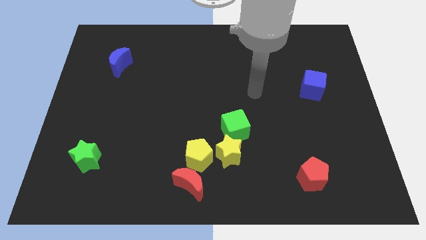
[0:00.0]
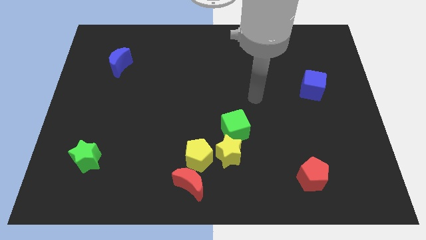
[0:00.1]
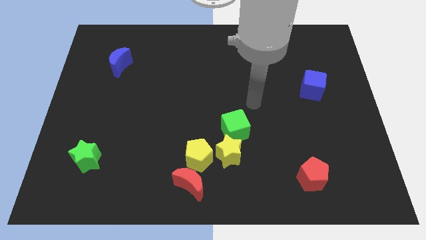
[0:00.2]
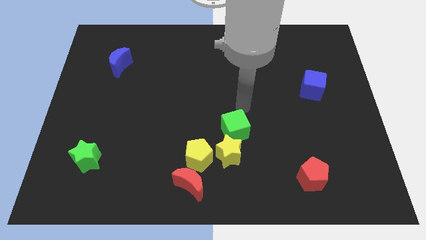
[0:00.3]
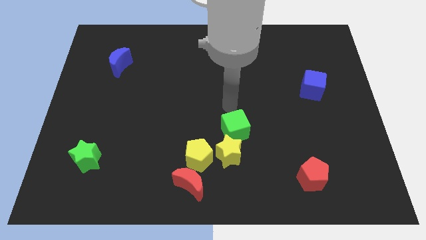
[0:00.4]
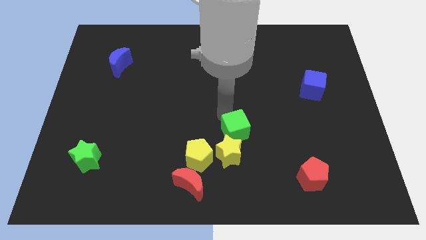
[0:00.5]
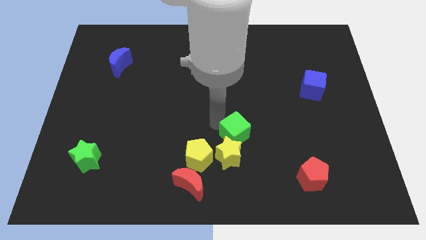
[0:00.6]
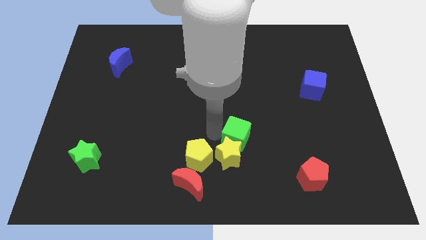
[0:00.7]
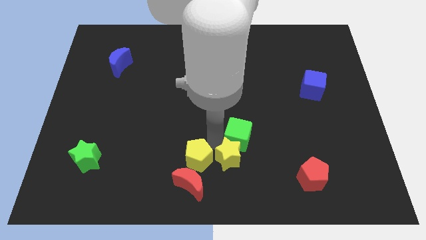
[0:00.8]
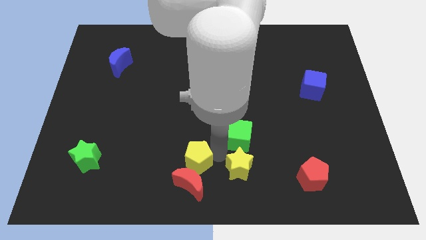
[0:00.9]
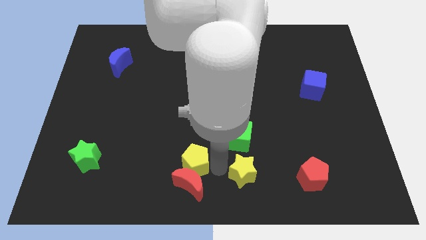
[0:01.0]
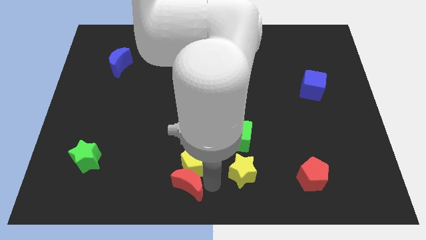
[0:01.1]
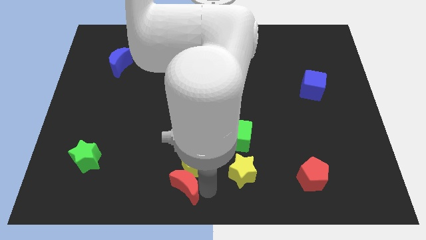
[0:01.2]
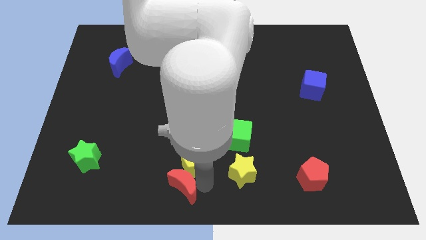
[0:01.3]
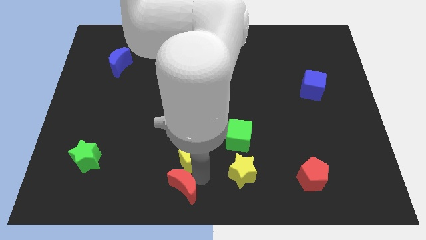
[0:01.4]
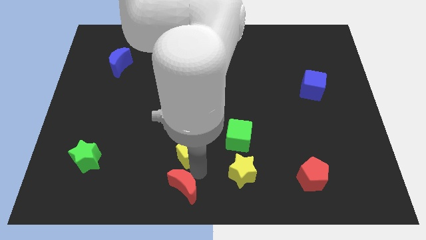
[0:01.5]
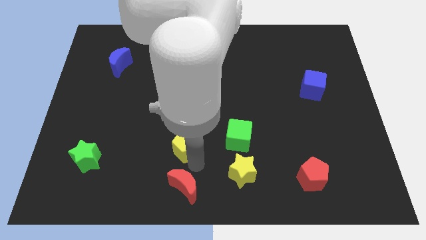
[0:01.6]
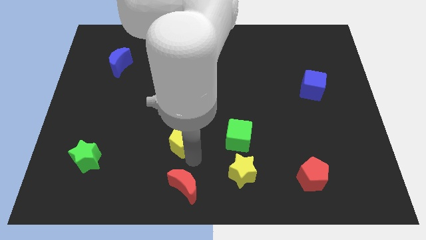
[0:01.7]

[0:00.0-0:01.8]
pull the yellow pentagon apart from the red moon and yellow star

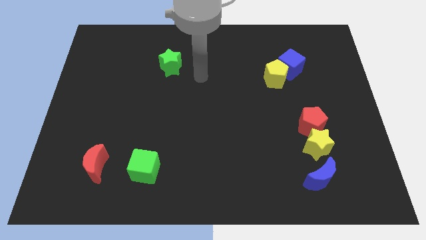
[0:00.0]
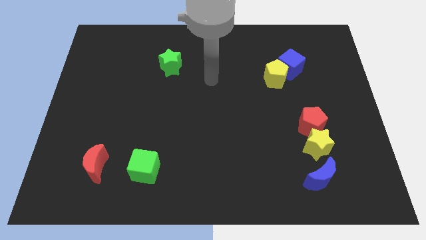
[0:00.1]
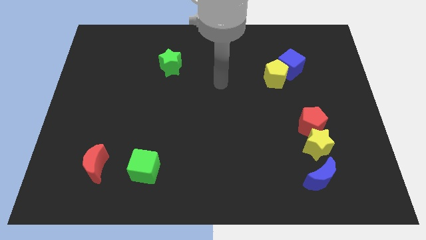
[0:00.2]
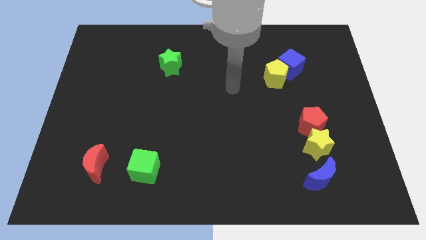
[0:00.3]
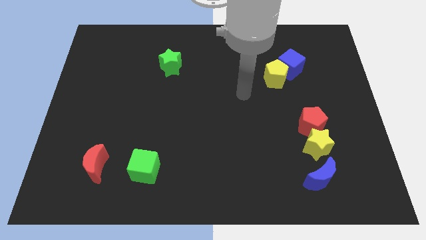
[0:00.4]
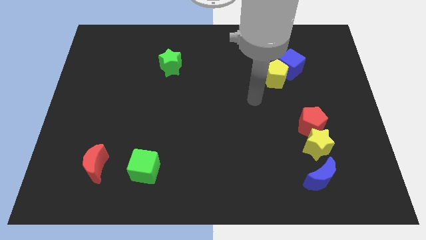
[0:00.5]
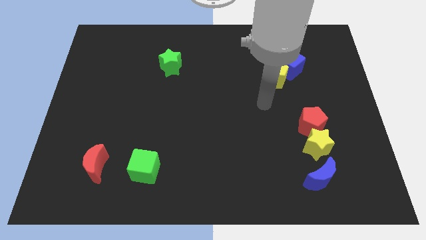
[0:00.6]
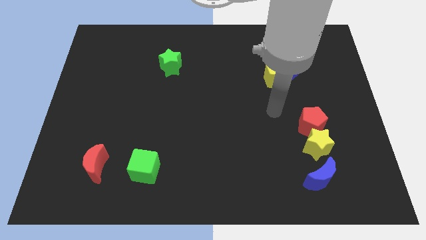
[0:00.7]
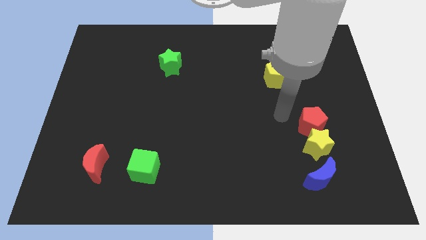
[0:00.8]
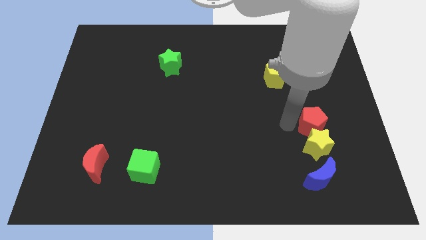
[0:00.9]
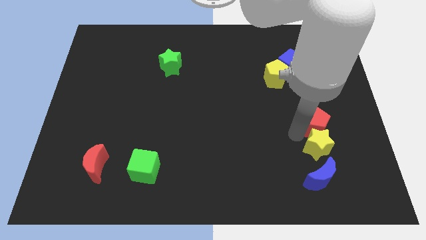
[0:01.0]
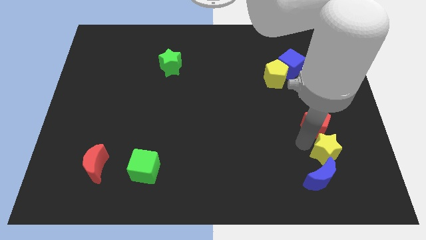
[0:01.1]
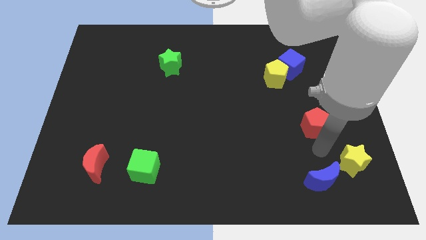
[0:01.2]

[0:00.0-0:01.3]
move the red pentagon away from the yellow star

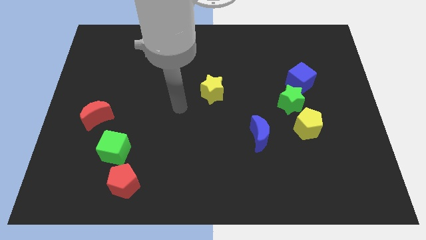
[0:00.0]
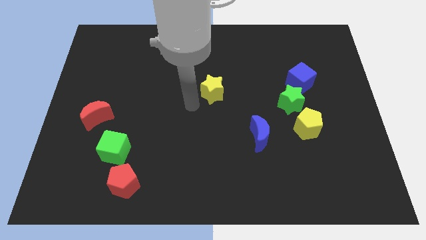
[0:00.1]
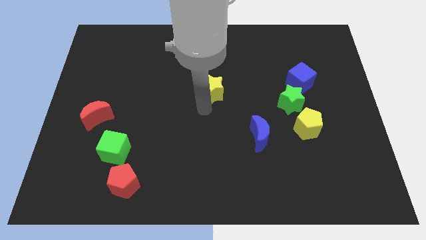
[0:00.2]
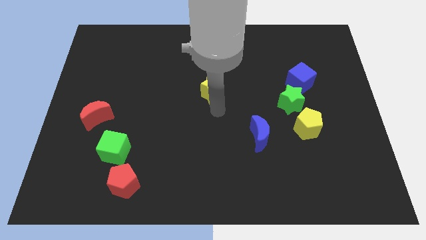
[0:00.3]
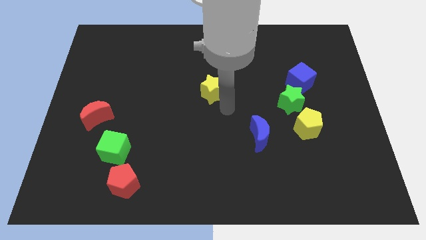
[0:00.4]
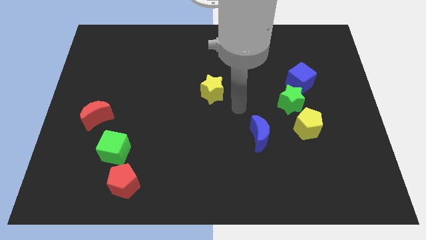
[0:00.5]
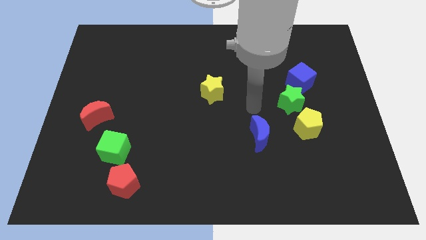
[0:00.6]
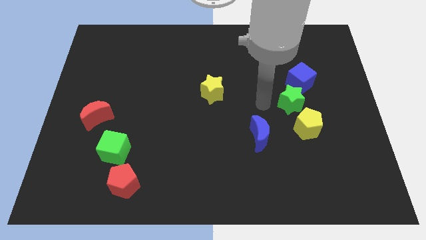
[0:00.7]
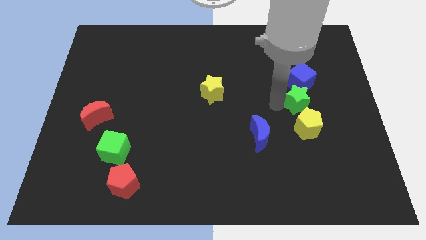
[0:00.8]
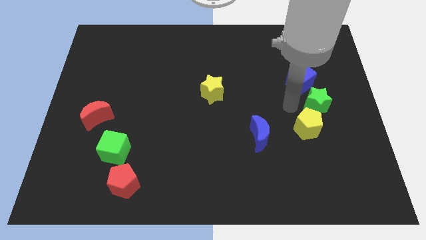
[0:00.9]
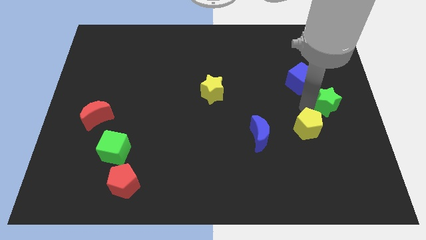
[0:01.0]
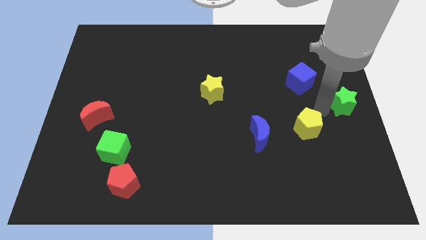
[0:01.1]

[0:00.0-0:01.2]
pull the yellow pentagon apart from the green star

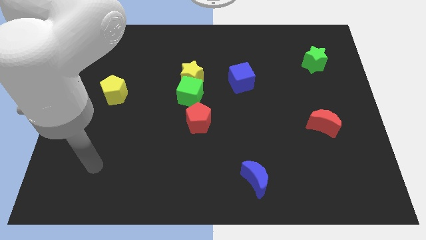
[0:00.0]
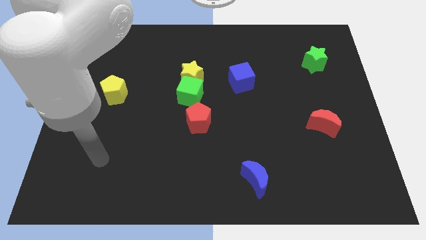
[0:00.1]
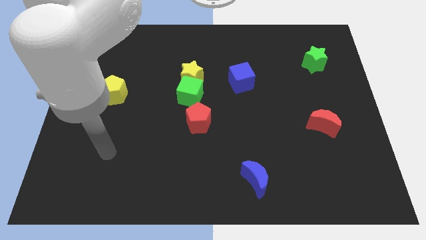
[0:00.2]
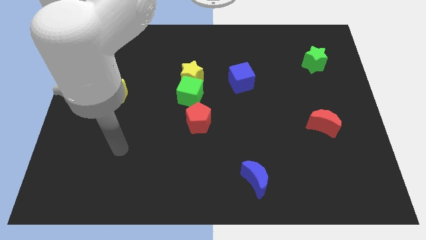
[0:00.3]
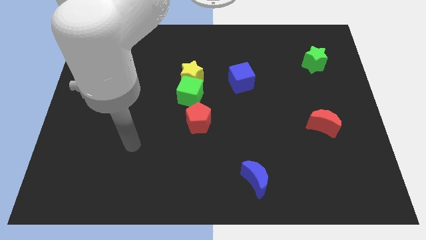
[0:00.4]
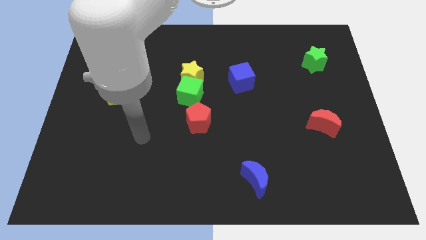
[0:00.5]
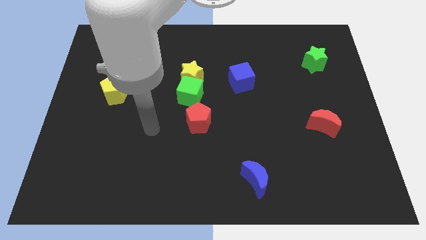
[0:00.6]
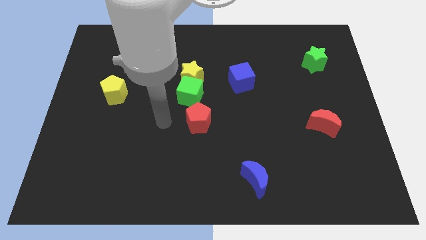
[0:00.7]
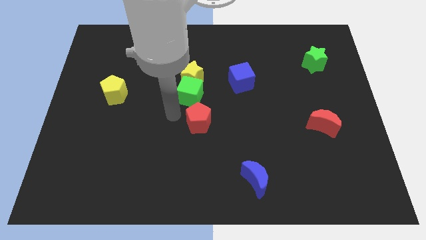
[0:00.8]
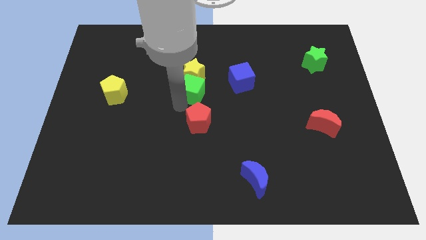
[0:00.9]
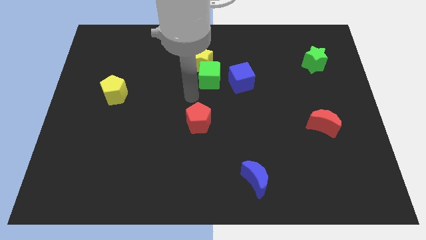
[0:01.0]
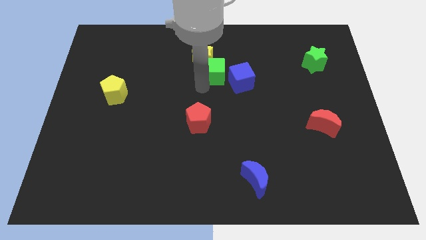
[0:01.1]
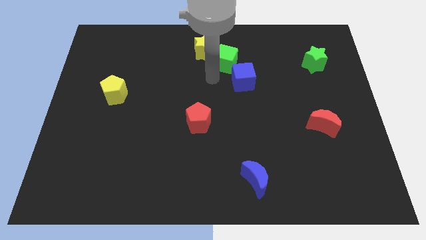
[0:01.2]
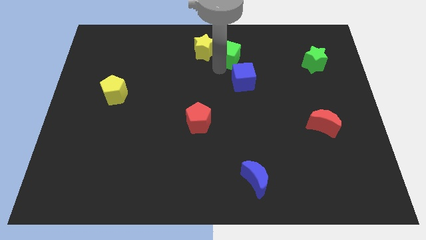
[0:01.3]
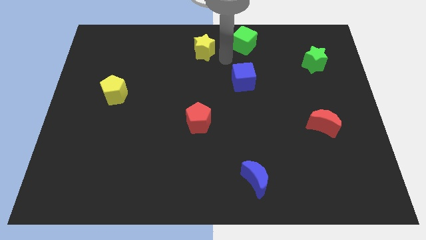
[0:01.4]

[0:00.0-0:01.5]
move the yellow star away from the green cube

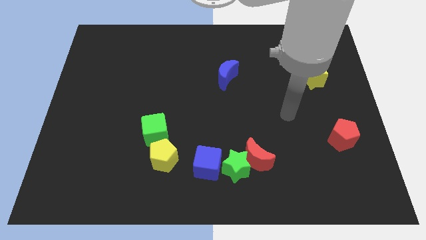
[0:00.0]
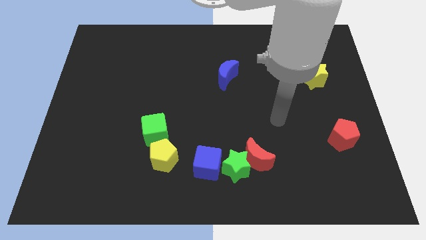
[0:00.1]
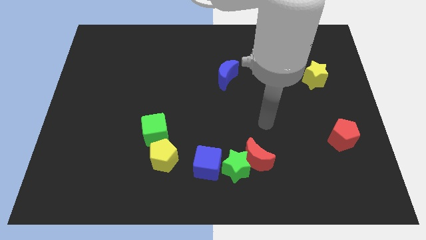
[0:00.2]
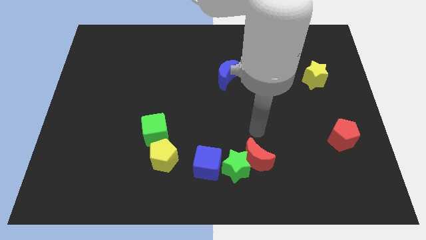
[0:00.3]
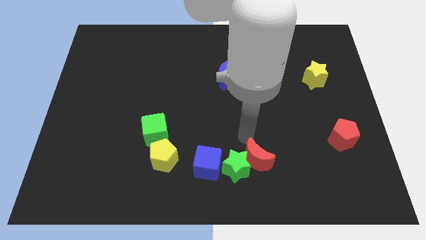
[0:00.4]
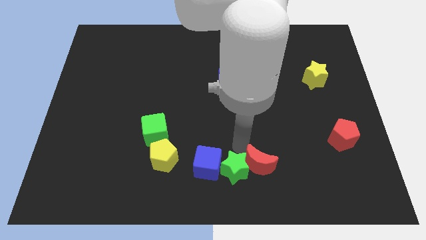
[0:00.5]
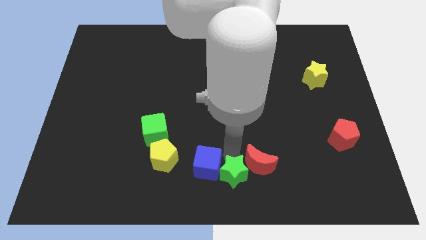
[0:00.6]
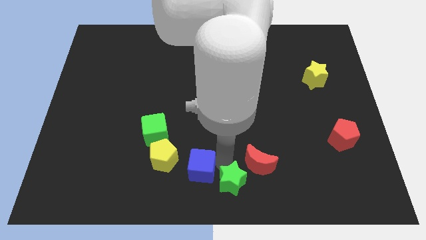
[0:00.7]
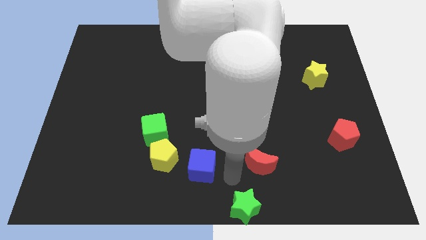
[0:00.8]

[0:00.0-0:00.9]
separate the red moon from the green star

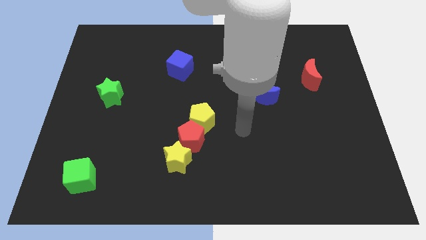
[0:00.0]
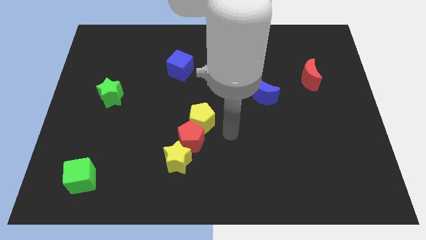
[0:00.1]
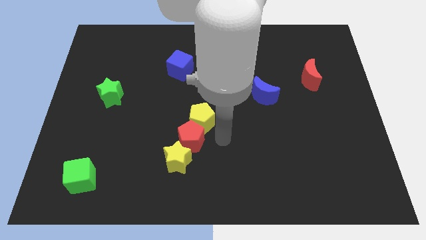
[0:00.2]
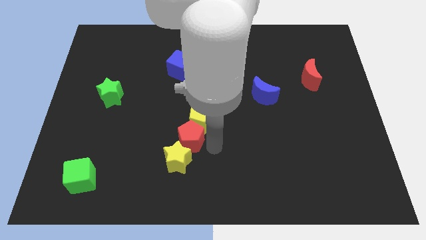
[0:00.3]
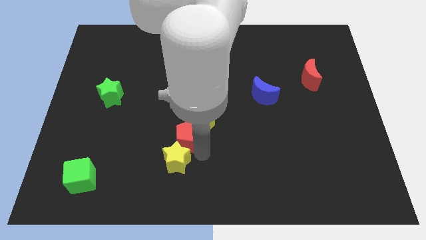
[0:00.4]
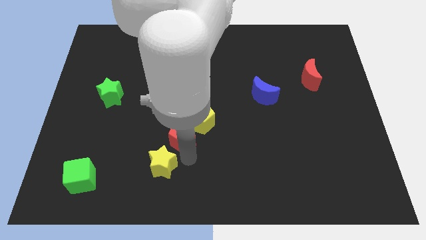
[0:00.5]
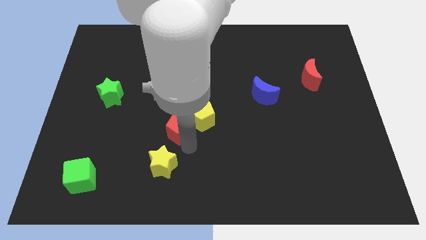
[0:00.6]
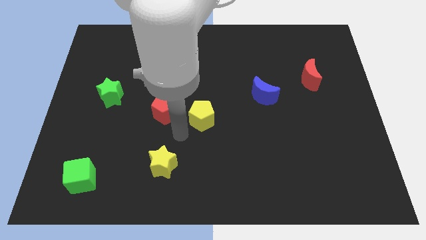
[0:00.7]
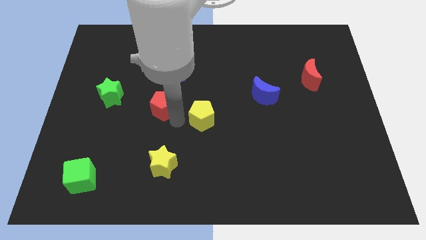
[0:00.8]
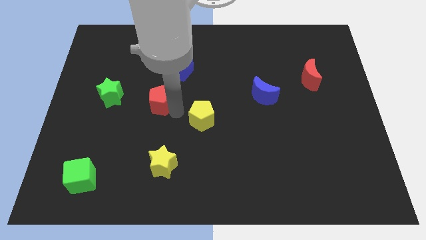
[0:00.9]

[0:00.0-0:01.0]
pull the yellow pentagon apart from the red pentagon

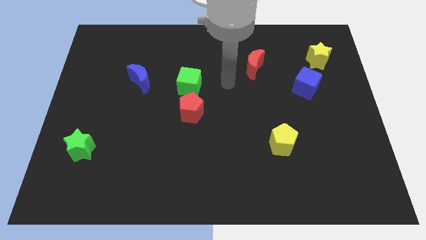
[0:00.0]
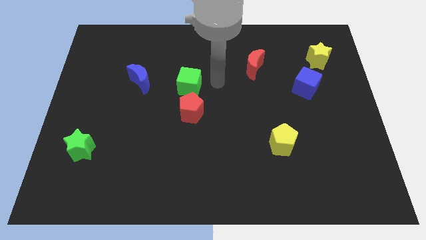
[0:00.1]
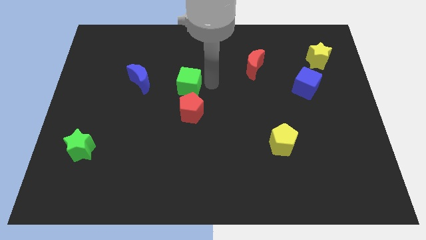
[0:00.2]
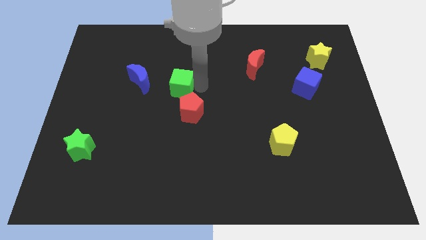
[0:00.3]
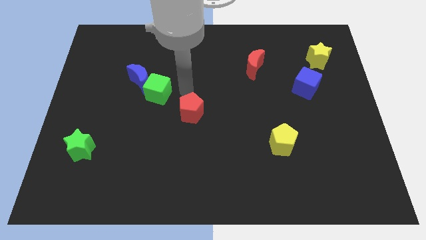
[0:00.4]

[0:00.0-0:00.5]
move the red pentagon away from the green cube

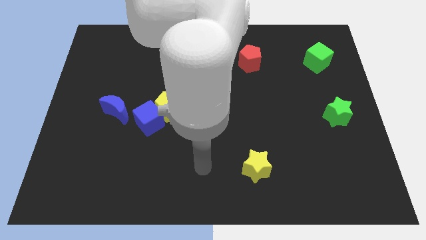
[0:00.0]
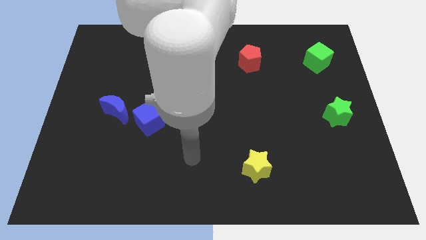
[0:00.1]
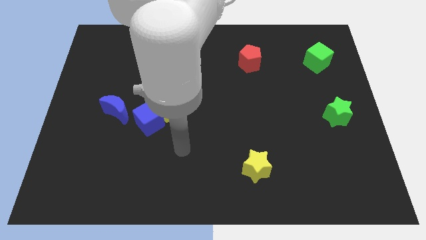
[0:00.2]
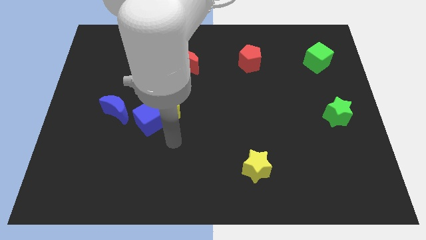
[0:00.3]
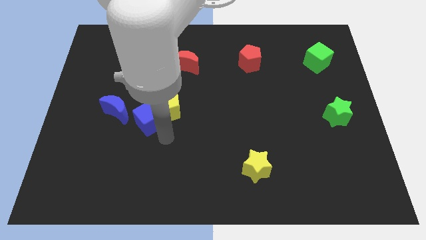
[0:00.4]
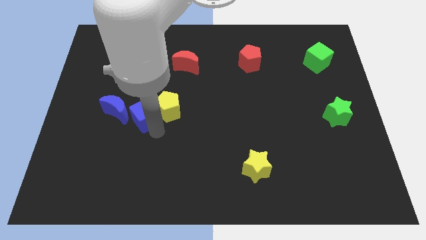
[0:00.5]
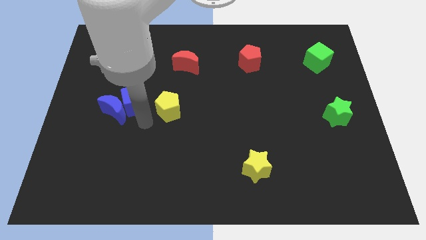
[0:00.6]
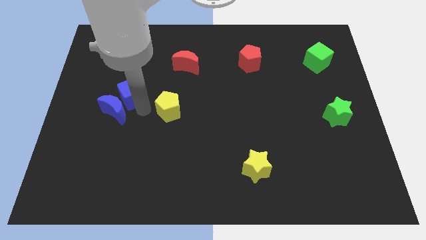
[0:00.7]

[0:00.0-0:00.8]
move the yellow pentagon away from the blue cube

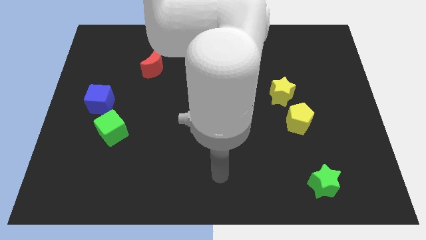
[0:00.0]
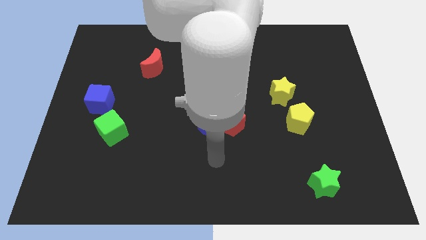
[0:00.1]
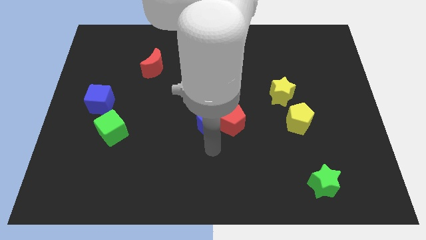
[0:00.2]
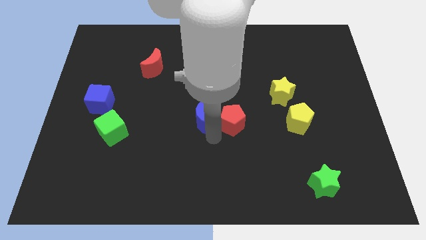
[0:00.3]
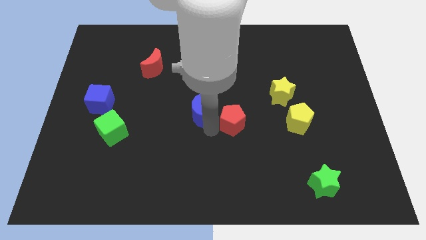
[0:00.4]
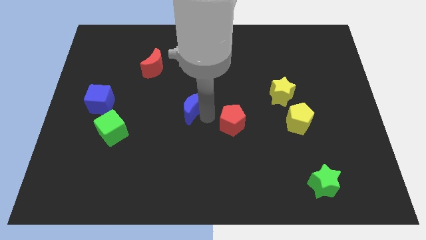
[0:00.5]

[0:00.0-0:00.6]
move the red pentagon away from the blue moon
